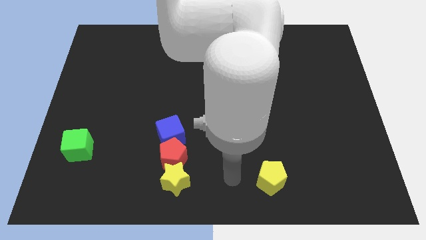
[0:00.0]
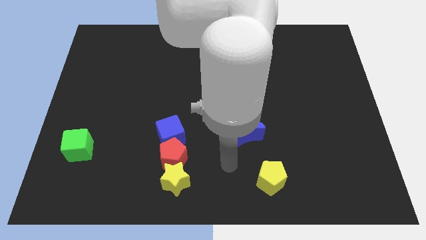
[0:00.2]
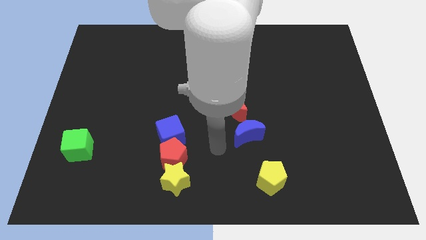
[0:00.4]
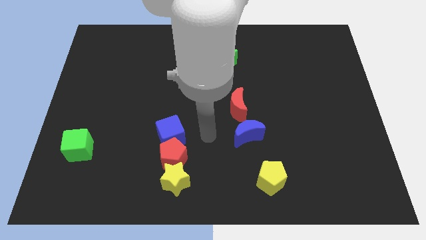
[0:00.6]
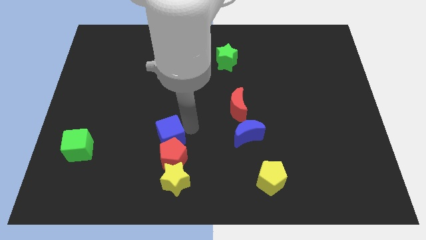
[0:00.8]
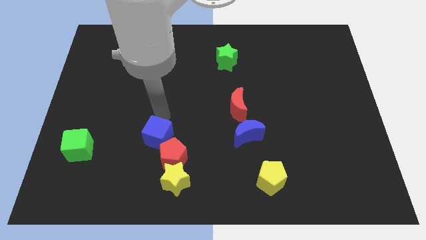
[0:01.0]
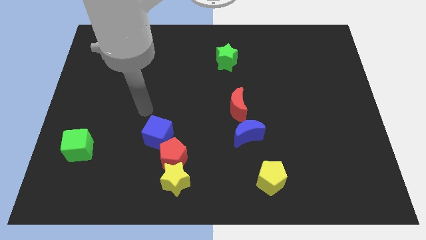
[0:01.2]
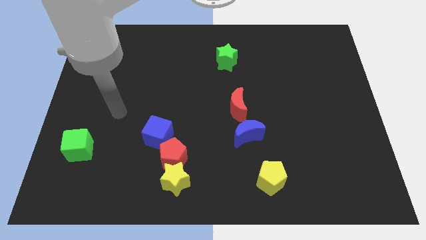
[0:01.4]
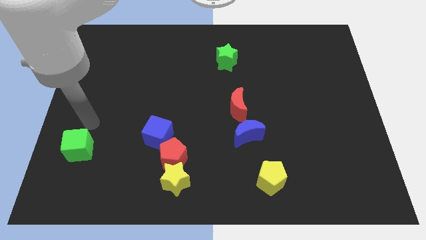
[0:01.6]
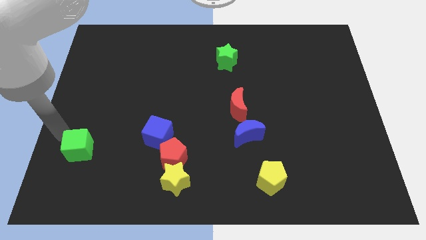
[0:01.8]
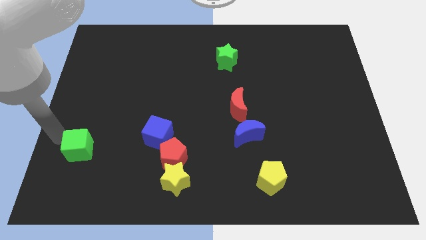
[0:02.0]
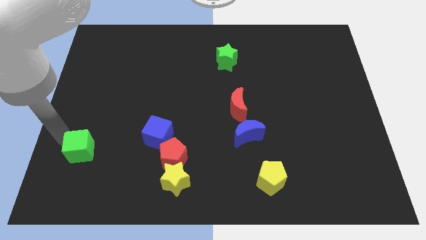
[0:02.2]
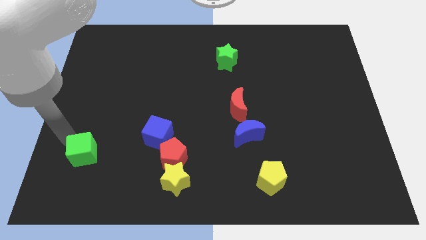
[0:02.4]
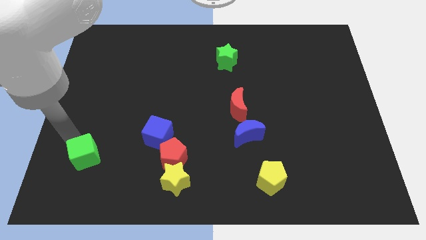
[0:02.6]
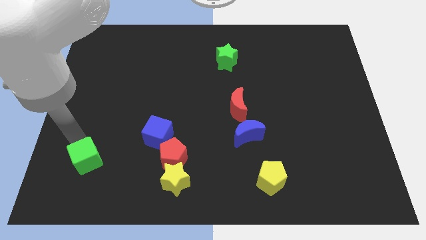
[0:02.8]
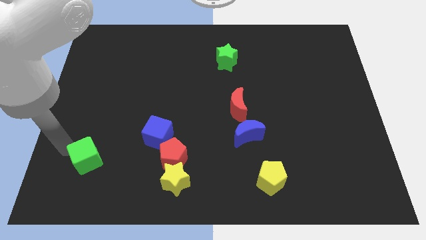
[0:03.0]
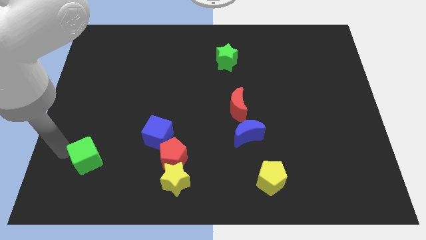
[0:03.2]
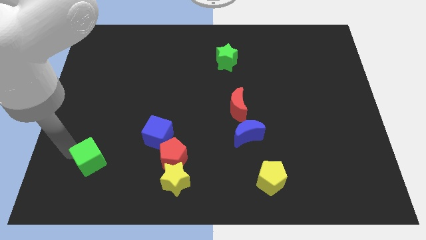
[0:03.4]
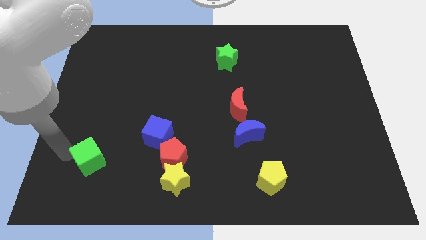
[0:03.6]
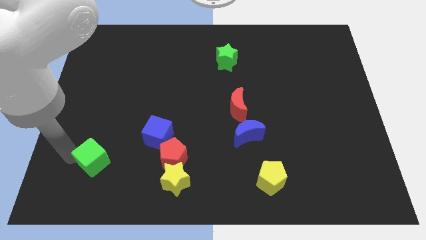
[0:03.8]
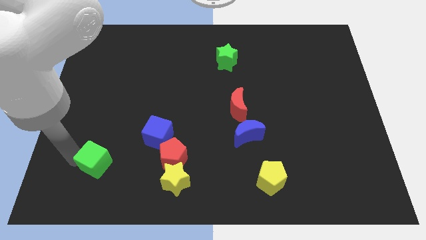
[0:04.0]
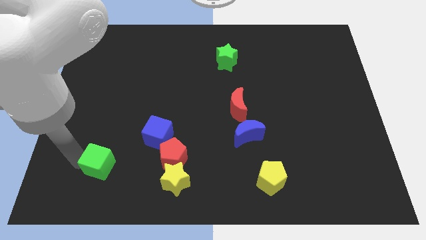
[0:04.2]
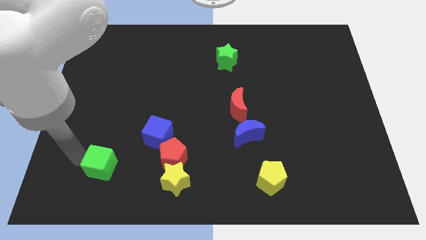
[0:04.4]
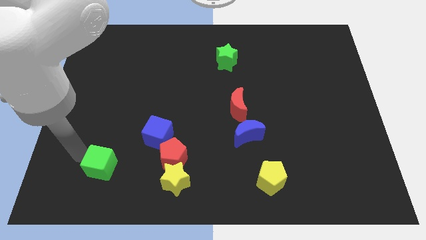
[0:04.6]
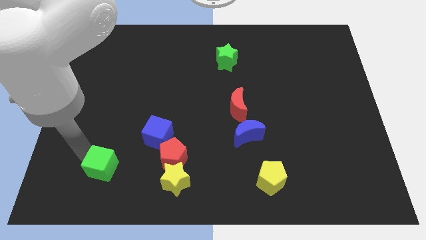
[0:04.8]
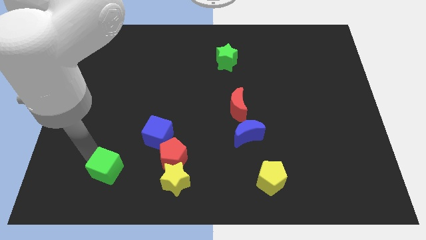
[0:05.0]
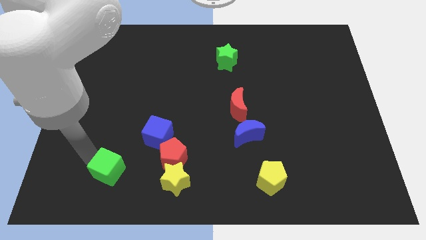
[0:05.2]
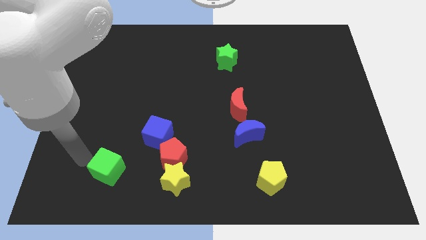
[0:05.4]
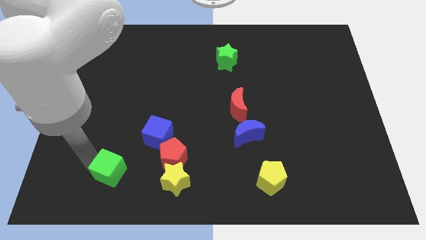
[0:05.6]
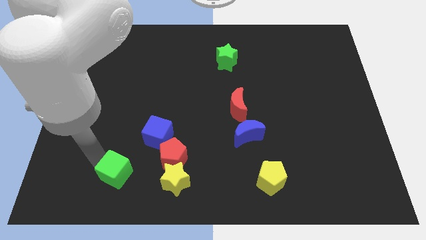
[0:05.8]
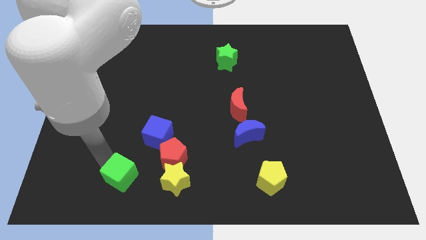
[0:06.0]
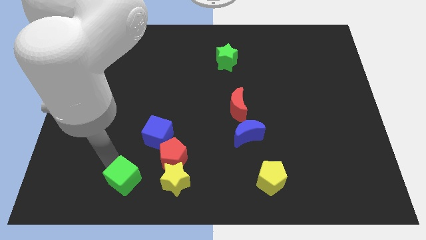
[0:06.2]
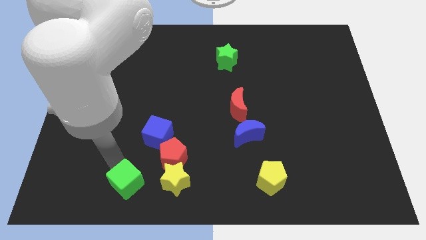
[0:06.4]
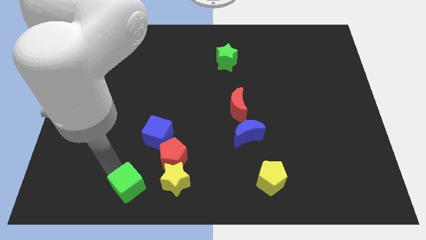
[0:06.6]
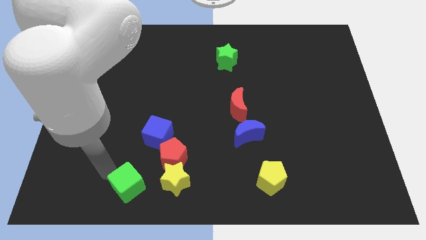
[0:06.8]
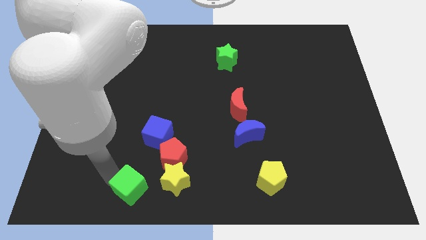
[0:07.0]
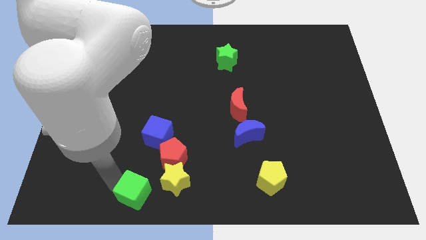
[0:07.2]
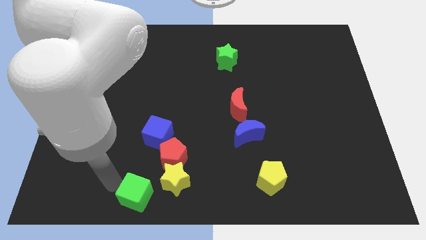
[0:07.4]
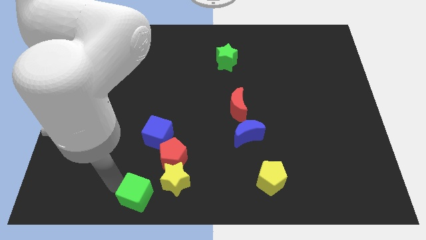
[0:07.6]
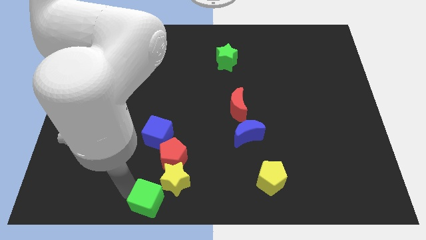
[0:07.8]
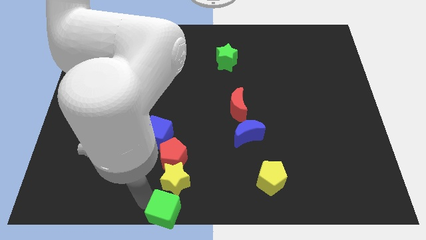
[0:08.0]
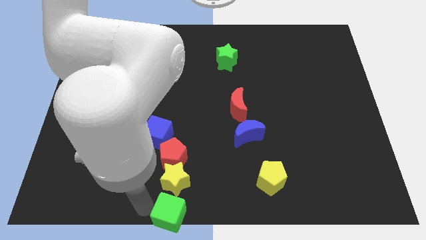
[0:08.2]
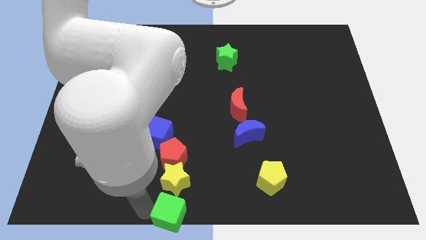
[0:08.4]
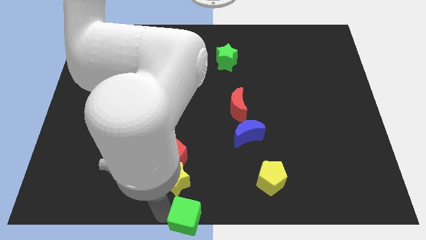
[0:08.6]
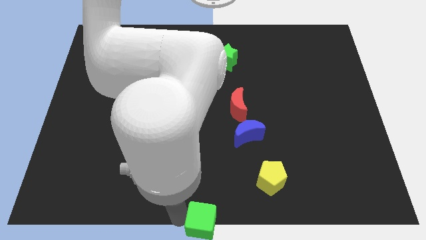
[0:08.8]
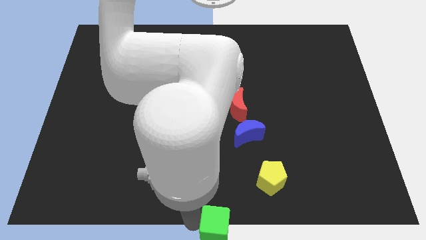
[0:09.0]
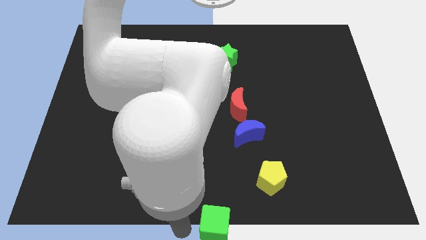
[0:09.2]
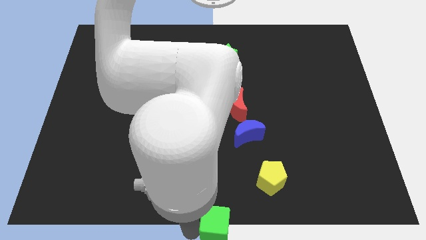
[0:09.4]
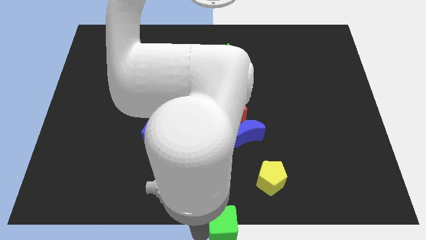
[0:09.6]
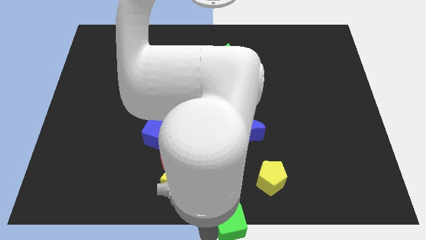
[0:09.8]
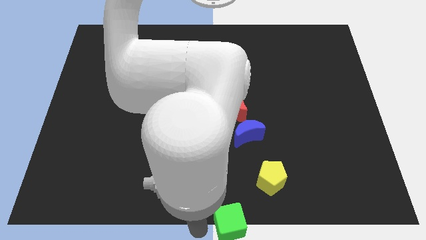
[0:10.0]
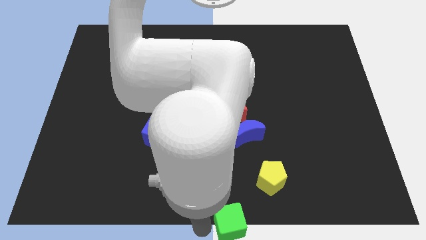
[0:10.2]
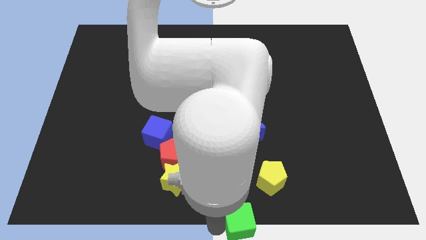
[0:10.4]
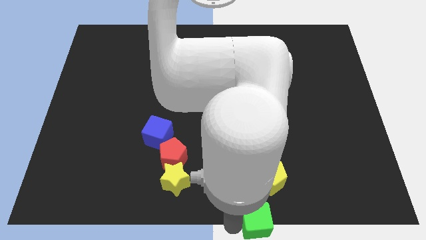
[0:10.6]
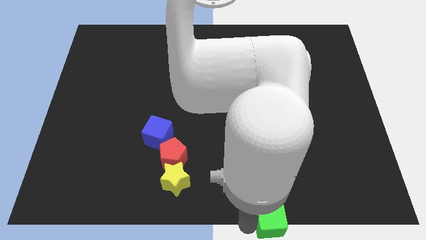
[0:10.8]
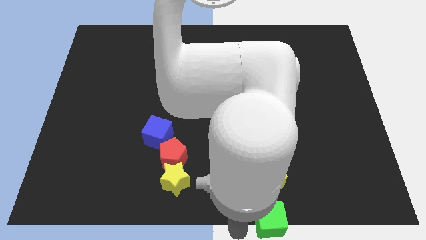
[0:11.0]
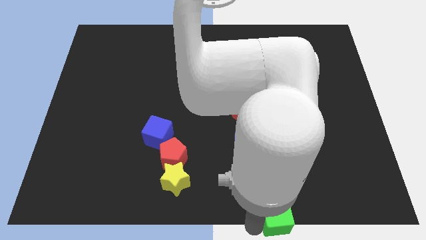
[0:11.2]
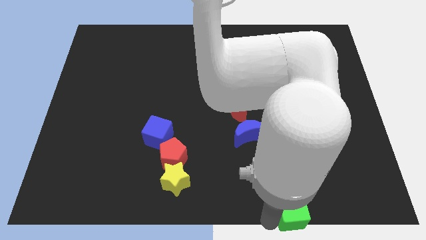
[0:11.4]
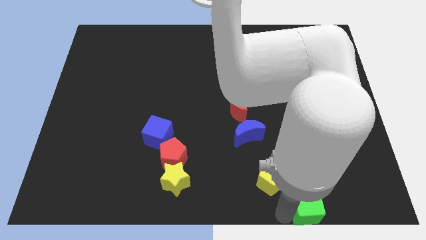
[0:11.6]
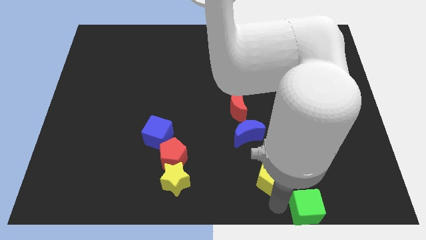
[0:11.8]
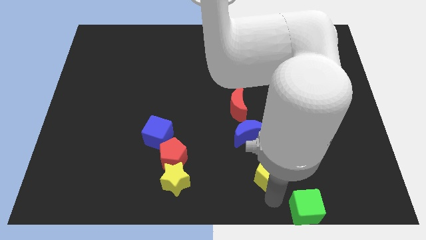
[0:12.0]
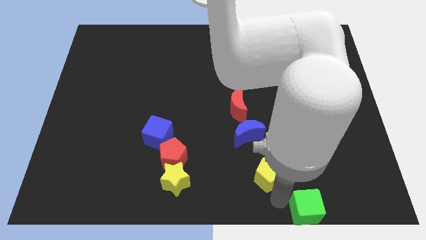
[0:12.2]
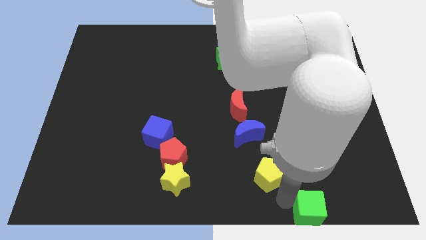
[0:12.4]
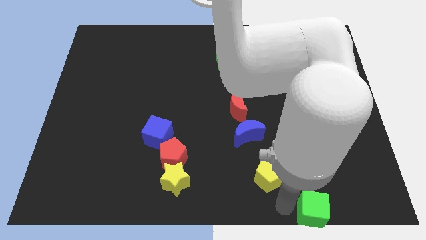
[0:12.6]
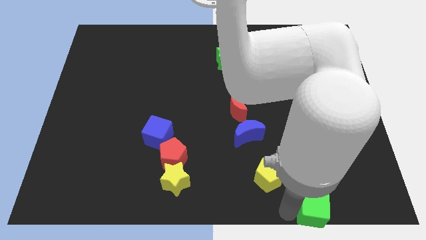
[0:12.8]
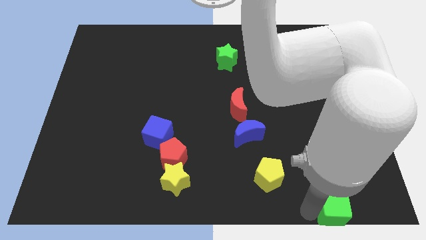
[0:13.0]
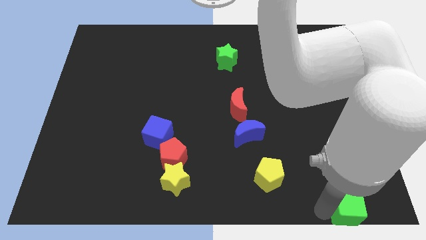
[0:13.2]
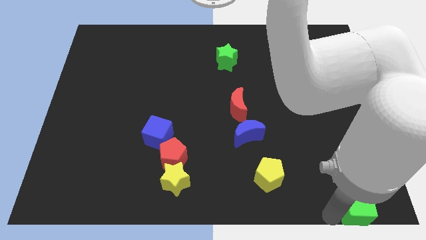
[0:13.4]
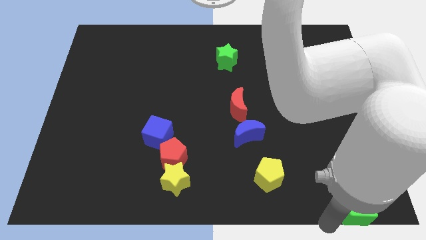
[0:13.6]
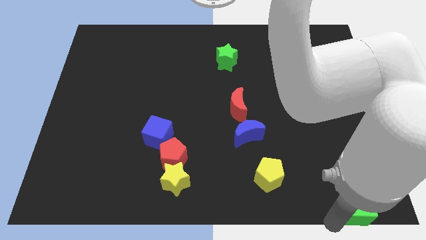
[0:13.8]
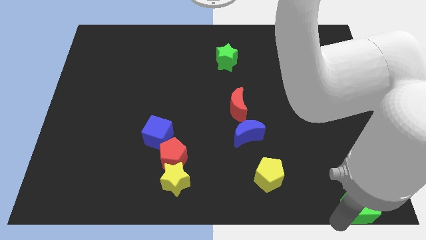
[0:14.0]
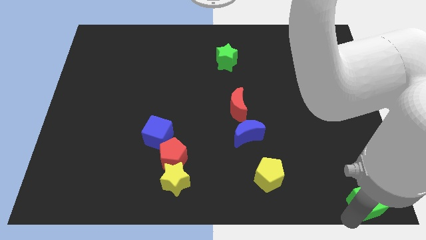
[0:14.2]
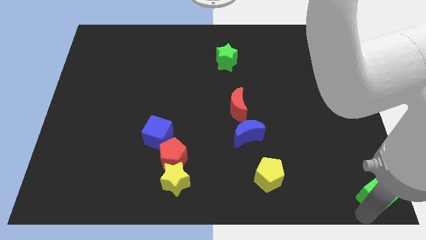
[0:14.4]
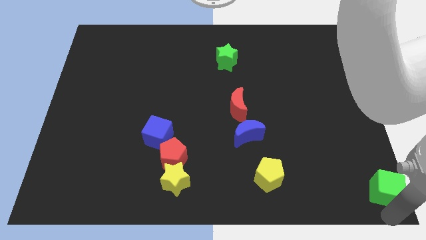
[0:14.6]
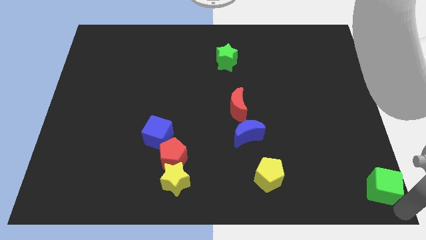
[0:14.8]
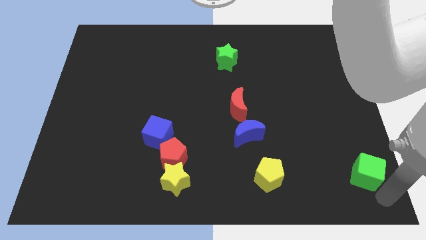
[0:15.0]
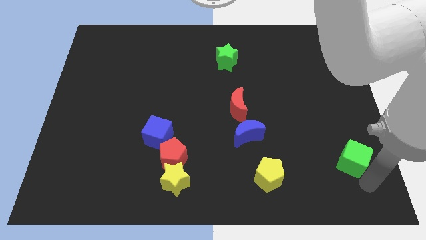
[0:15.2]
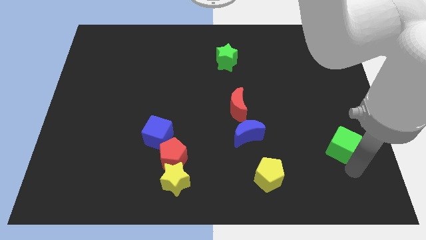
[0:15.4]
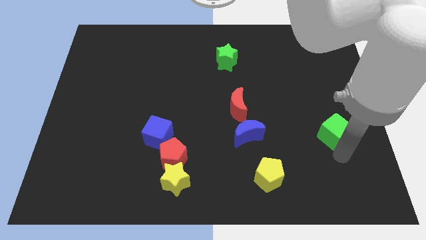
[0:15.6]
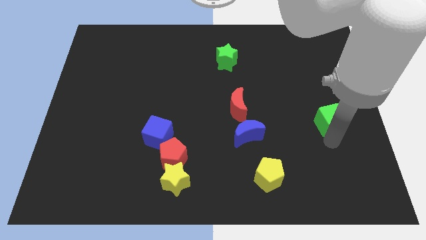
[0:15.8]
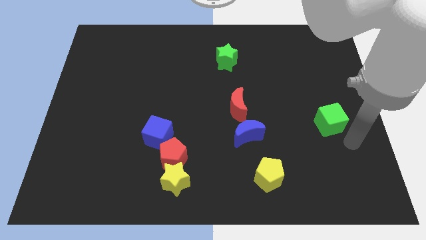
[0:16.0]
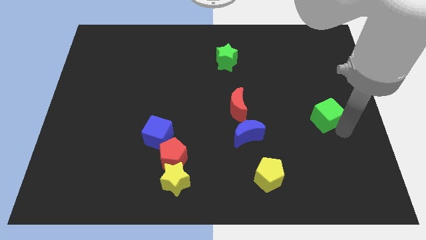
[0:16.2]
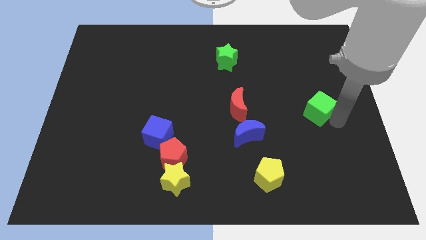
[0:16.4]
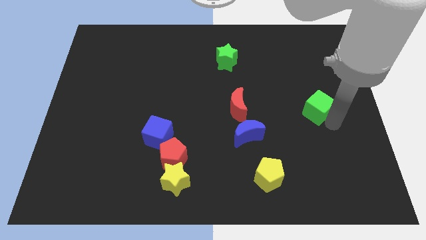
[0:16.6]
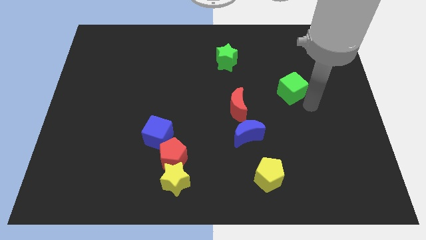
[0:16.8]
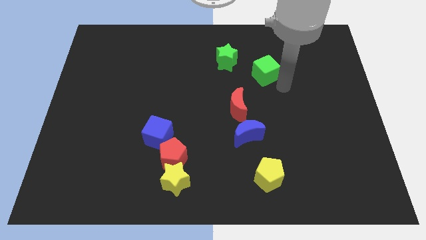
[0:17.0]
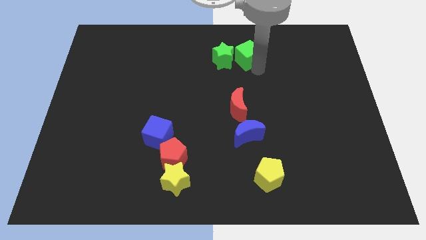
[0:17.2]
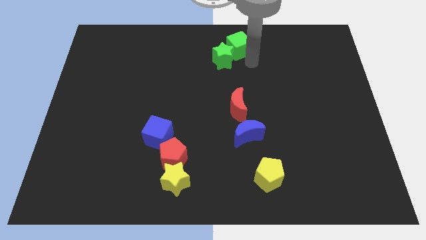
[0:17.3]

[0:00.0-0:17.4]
move the green cube to the top
